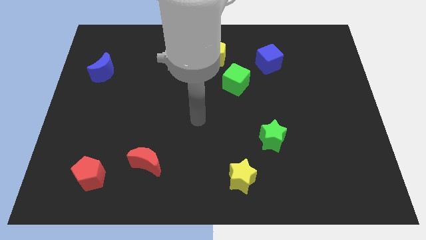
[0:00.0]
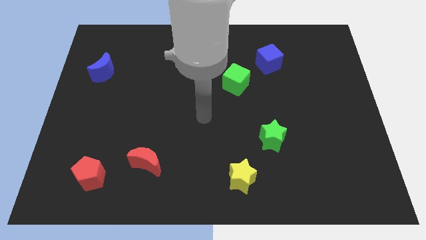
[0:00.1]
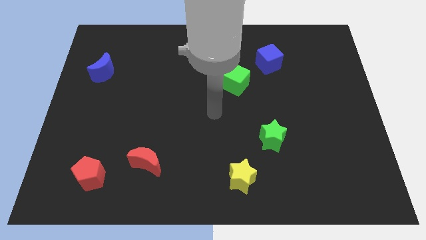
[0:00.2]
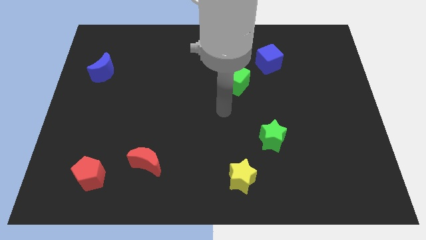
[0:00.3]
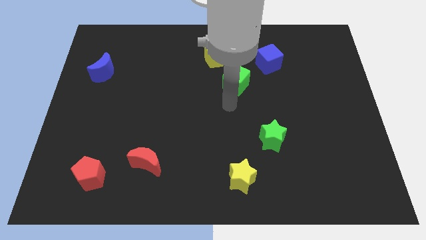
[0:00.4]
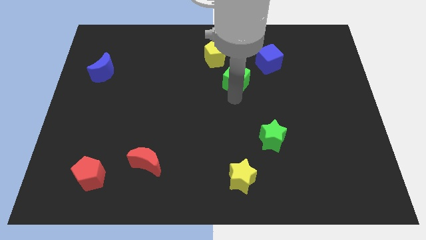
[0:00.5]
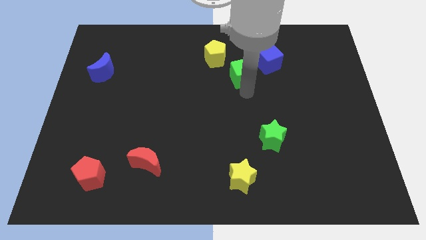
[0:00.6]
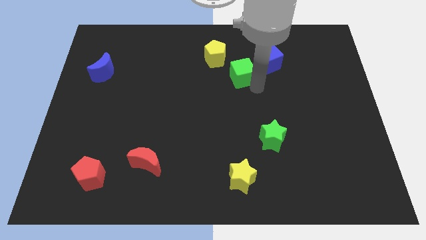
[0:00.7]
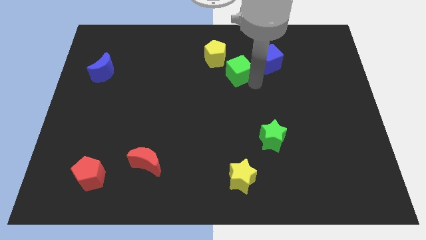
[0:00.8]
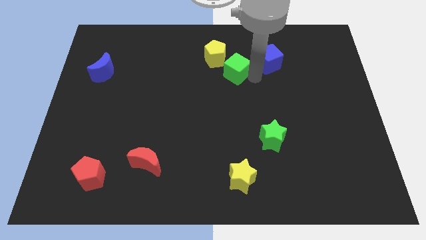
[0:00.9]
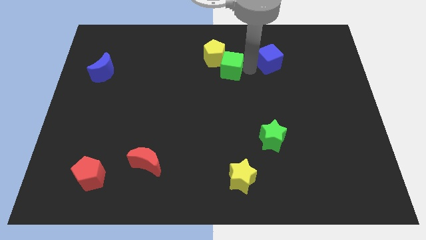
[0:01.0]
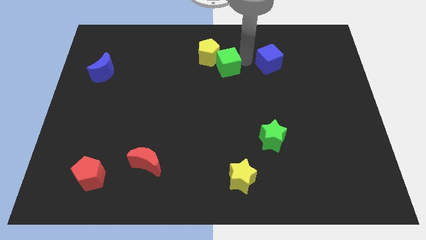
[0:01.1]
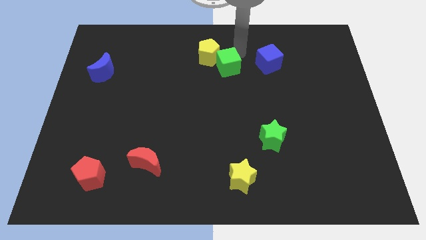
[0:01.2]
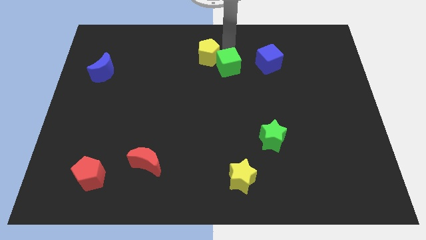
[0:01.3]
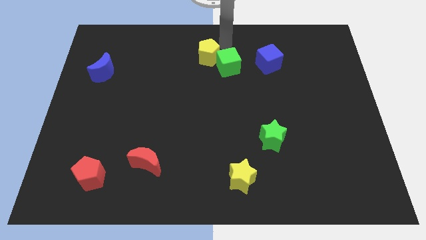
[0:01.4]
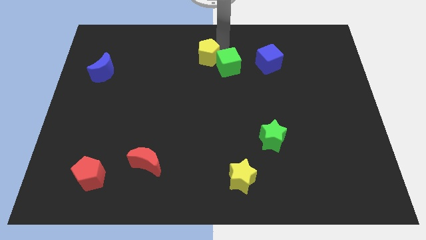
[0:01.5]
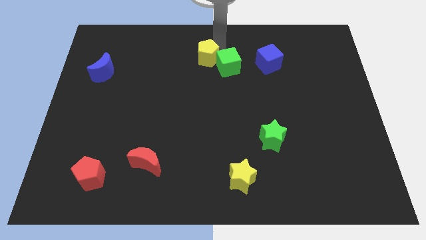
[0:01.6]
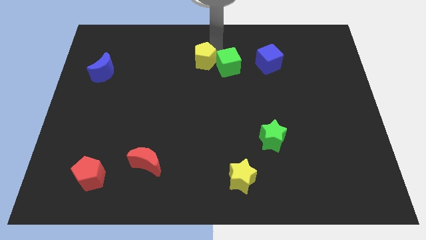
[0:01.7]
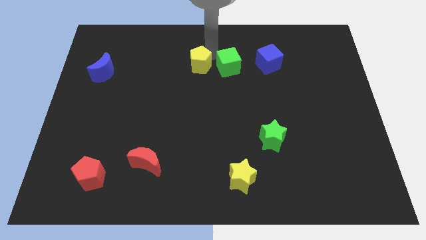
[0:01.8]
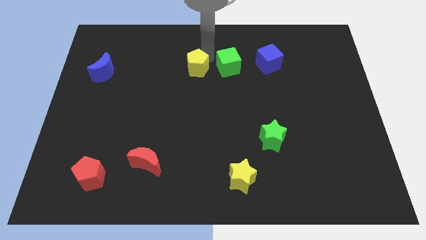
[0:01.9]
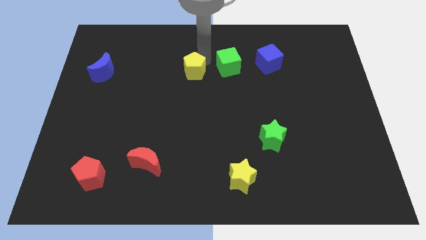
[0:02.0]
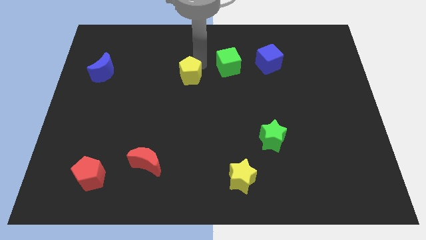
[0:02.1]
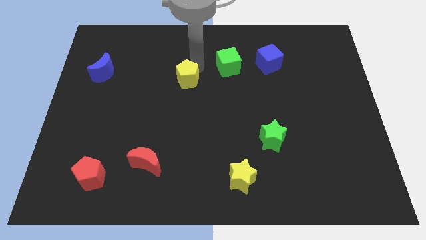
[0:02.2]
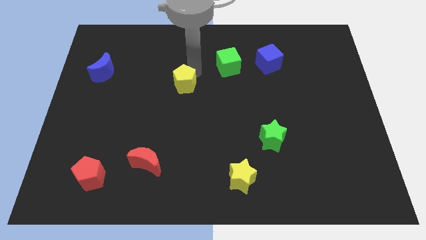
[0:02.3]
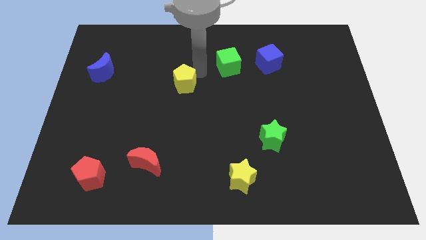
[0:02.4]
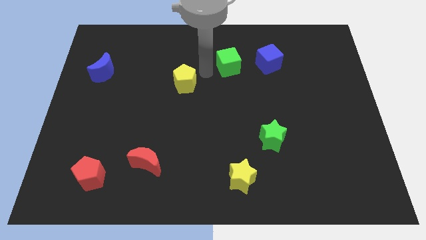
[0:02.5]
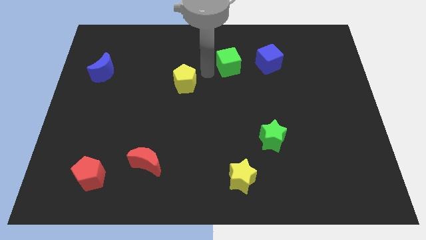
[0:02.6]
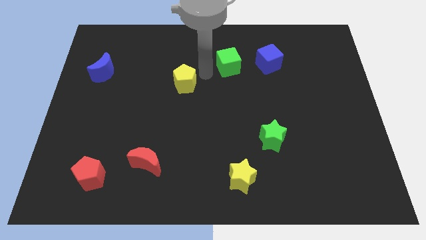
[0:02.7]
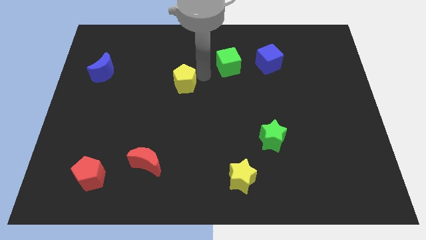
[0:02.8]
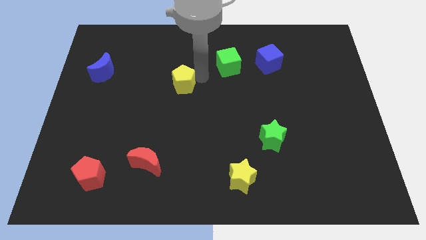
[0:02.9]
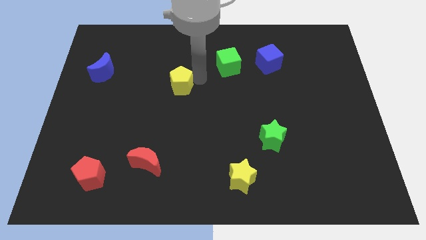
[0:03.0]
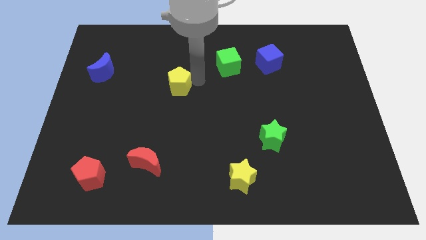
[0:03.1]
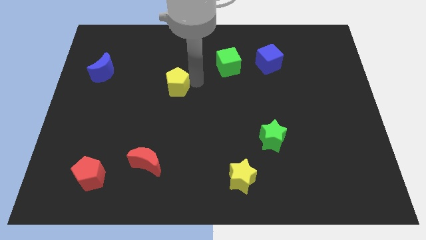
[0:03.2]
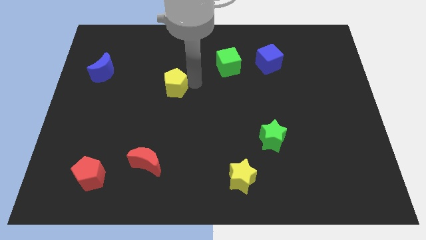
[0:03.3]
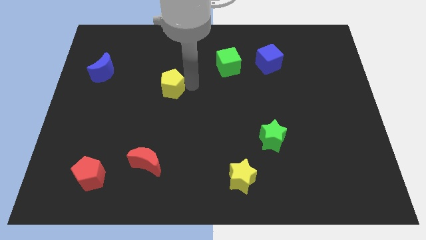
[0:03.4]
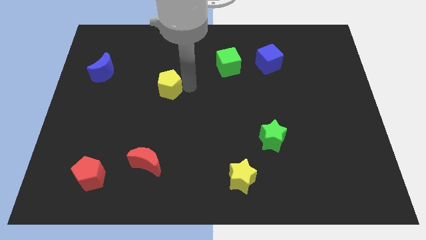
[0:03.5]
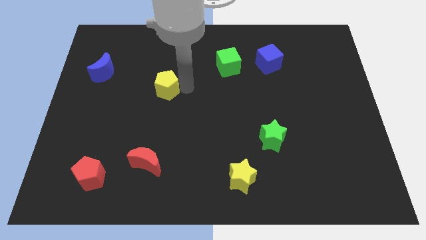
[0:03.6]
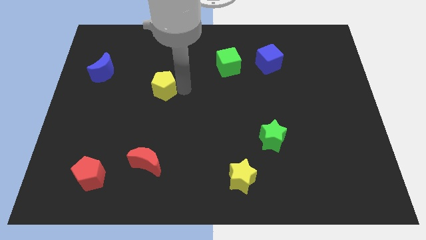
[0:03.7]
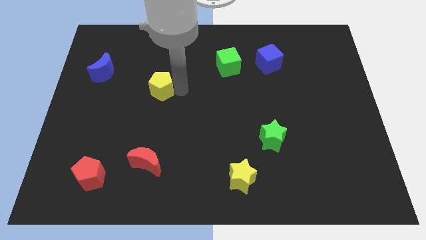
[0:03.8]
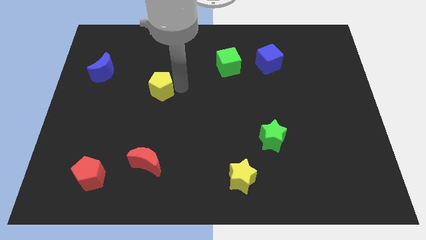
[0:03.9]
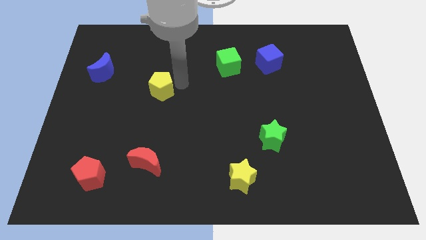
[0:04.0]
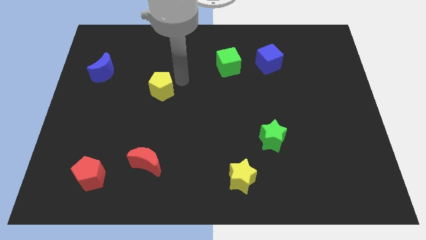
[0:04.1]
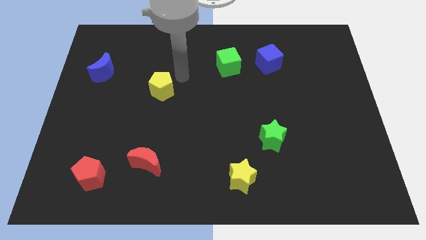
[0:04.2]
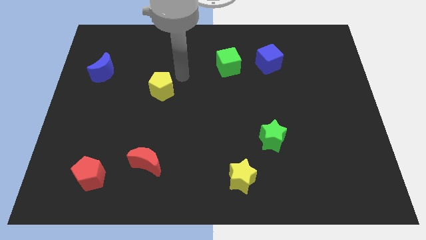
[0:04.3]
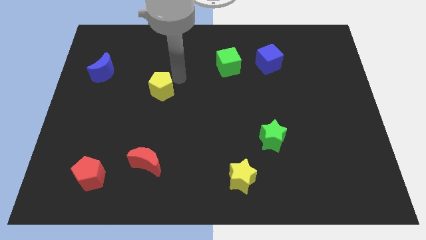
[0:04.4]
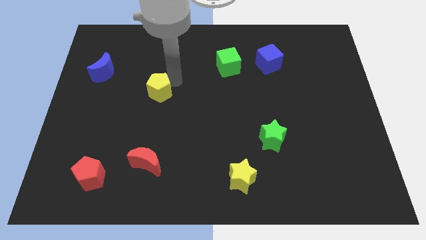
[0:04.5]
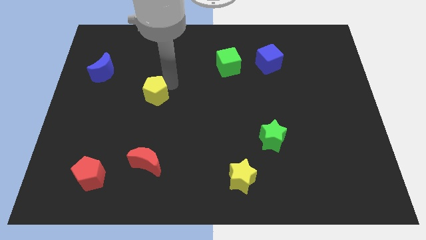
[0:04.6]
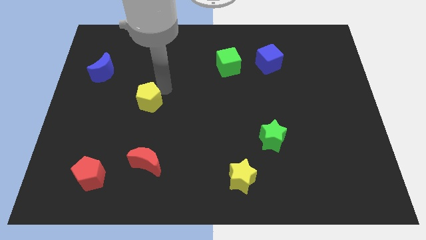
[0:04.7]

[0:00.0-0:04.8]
push the yellow pentagon downwards and to the left

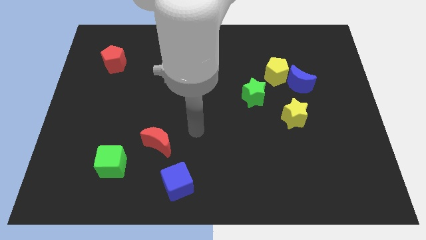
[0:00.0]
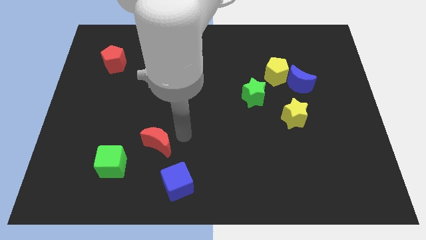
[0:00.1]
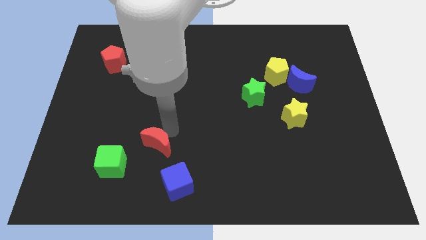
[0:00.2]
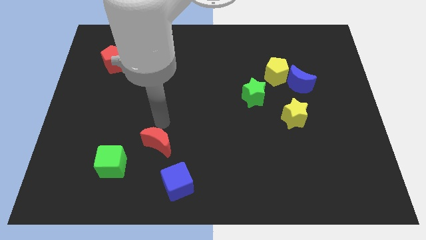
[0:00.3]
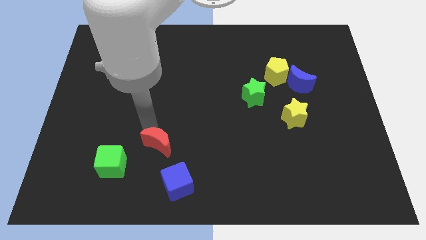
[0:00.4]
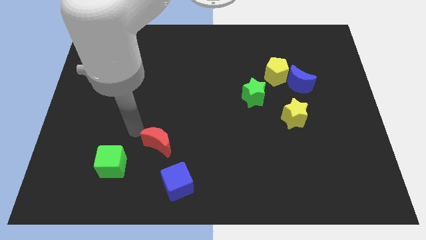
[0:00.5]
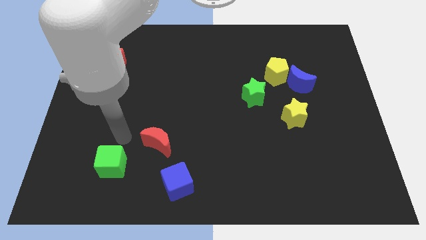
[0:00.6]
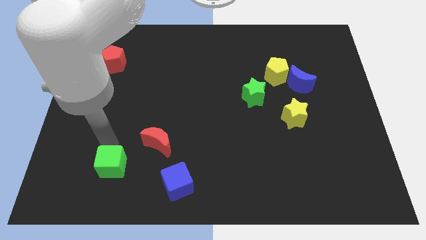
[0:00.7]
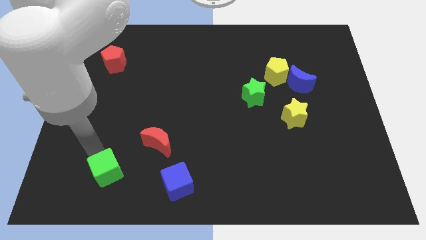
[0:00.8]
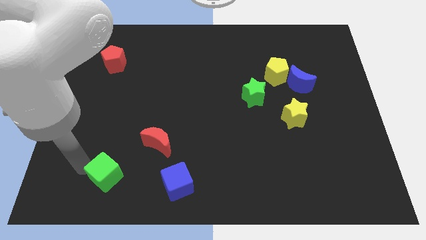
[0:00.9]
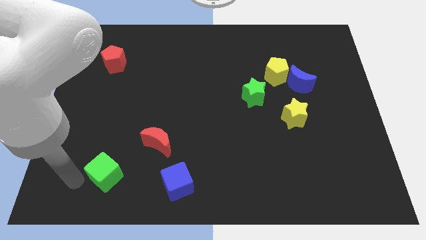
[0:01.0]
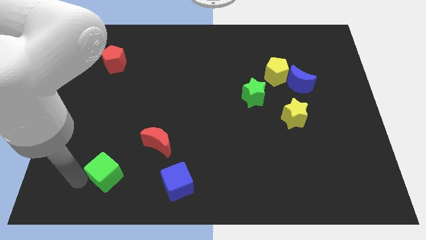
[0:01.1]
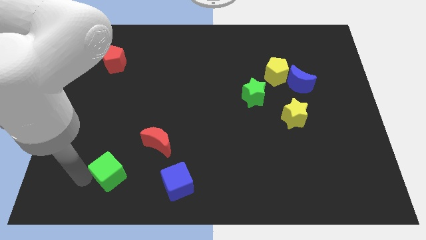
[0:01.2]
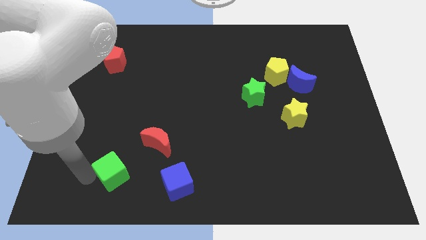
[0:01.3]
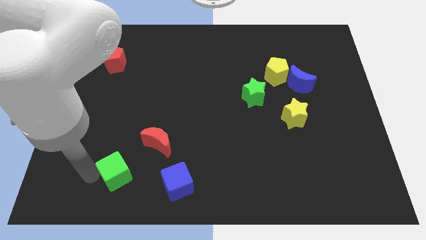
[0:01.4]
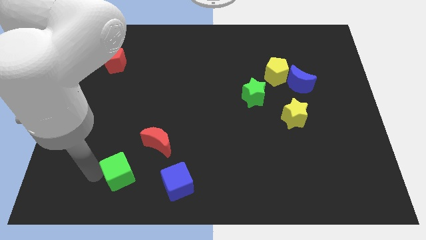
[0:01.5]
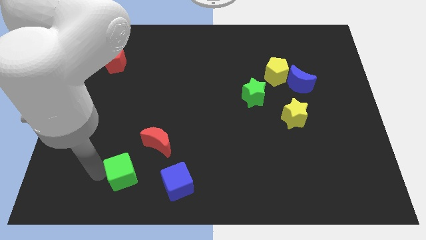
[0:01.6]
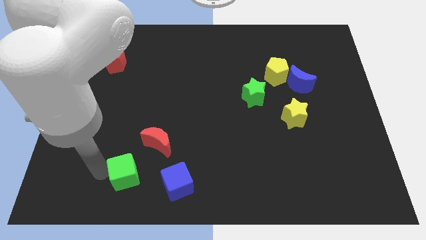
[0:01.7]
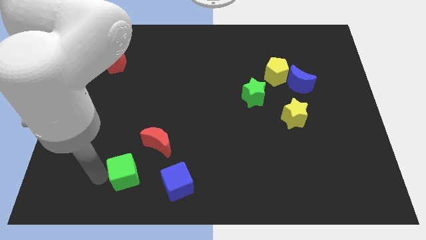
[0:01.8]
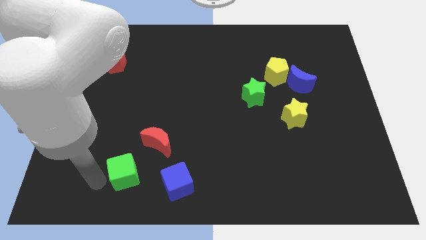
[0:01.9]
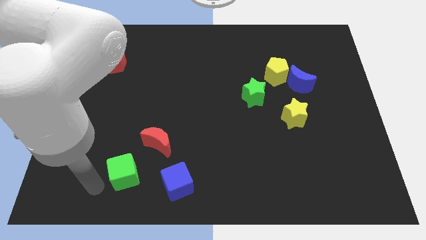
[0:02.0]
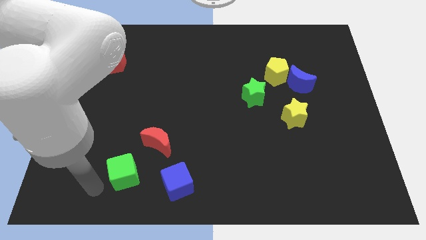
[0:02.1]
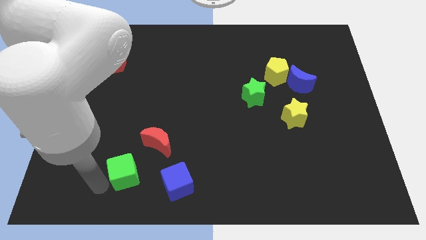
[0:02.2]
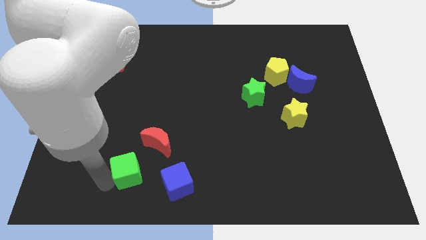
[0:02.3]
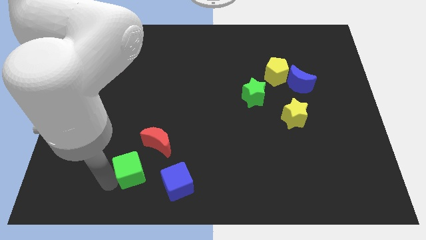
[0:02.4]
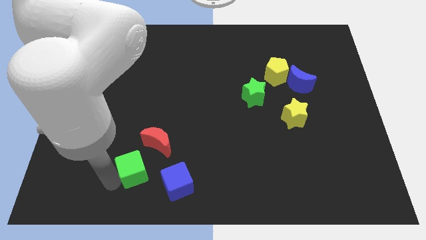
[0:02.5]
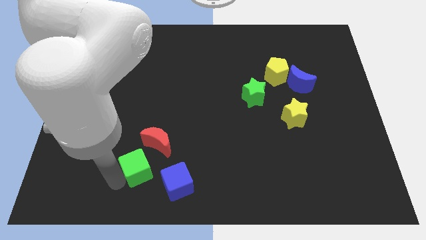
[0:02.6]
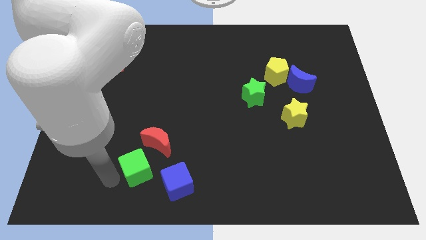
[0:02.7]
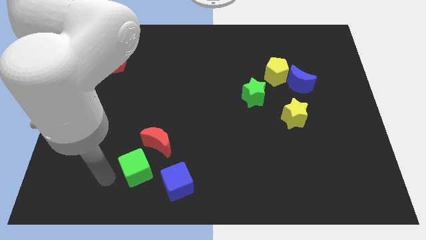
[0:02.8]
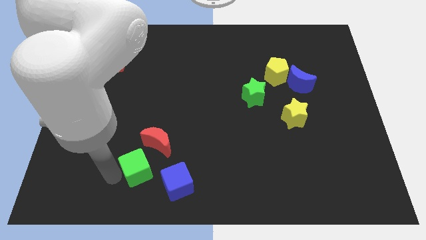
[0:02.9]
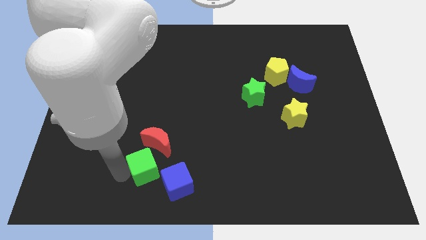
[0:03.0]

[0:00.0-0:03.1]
slightly move the green cube to the right
